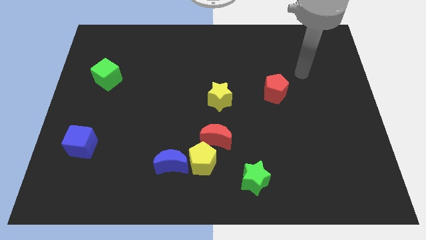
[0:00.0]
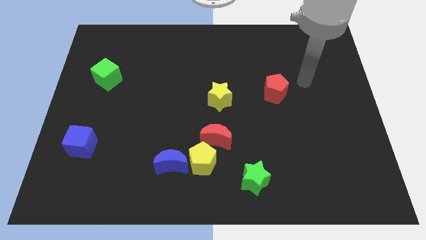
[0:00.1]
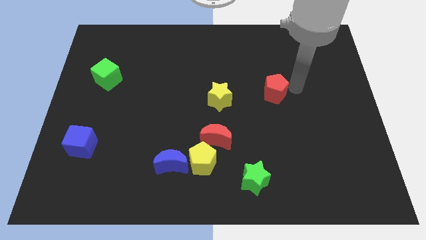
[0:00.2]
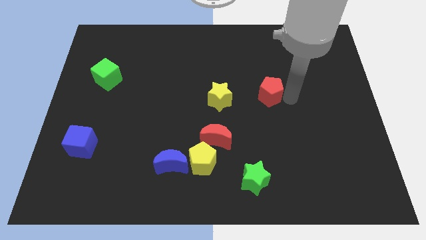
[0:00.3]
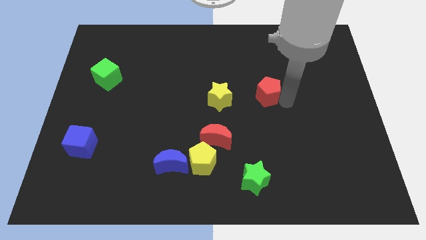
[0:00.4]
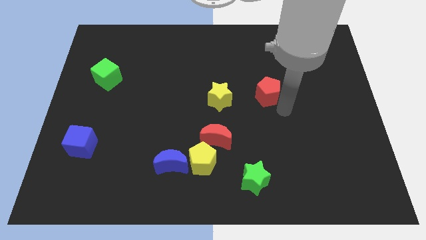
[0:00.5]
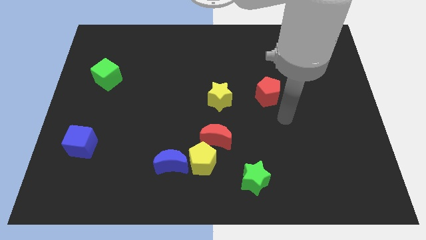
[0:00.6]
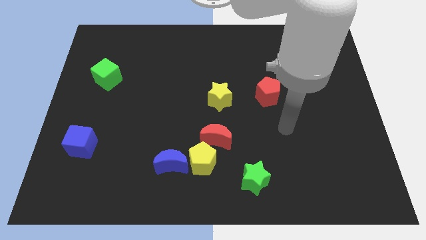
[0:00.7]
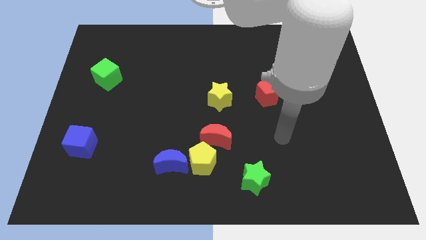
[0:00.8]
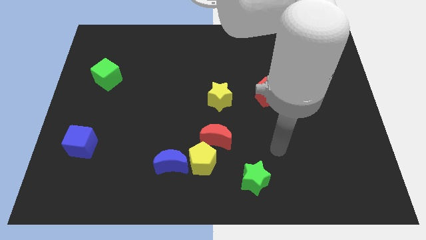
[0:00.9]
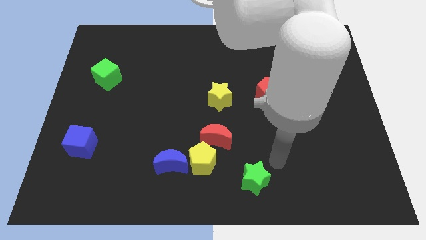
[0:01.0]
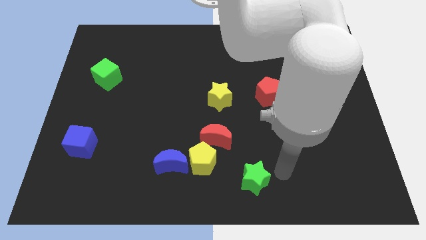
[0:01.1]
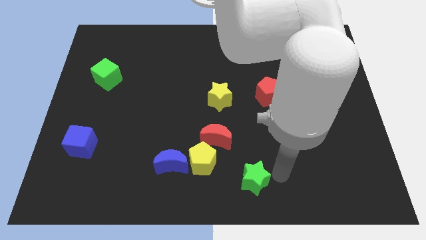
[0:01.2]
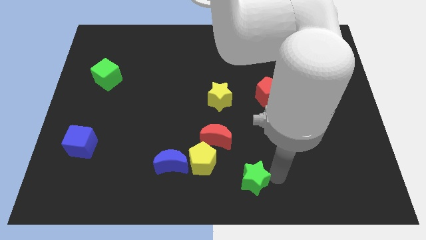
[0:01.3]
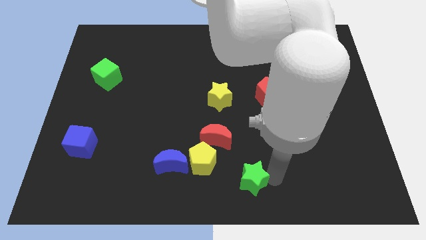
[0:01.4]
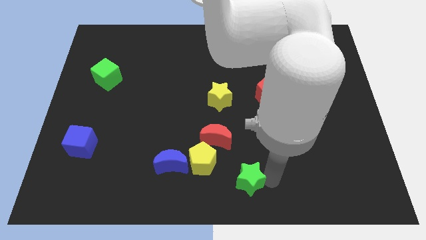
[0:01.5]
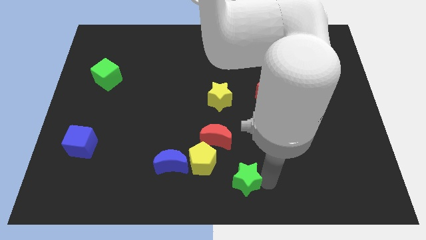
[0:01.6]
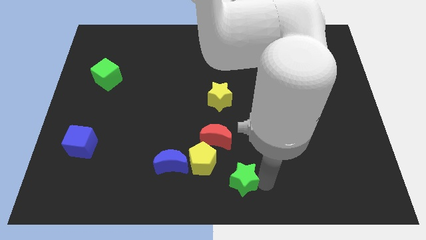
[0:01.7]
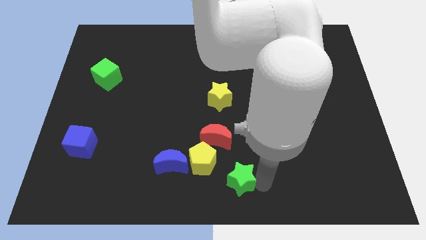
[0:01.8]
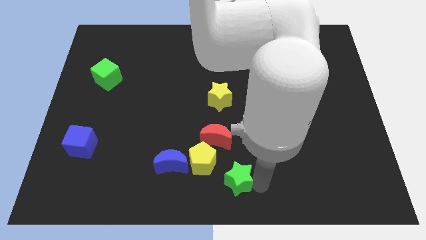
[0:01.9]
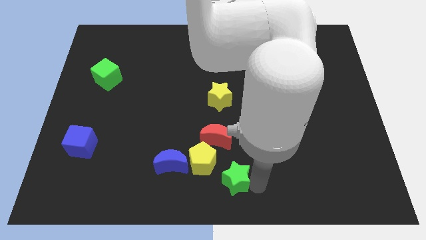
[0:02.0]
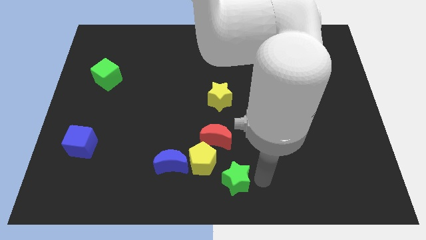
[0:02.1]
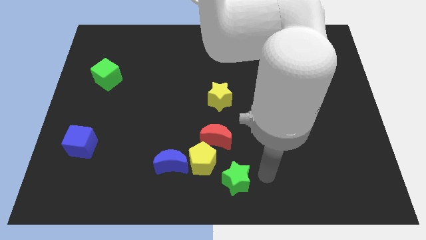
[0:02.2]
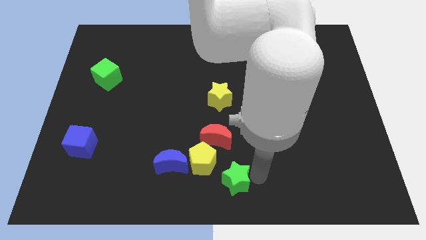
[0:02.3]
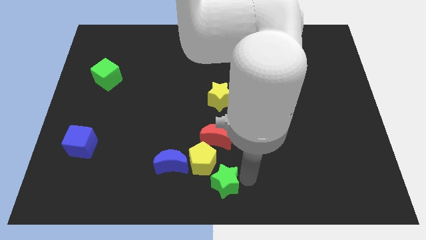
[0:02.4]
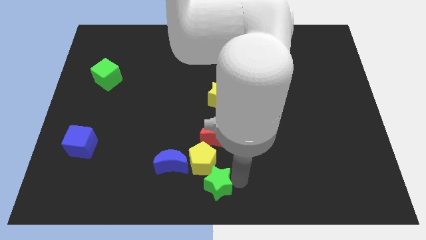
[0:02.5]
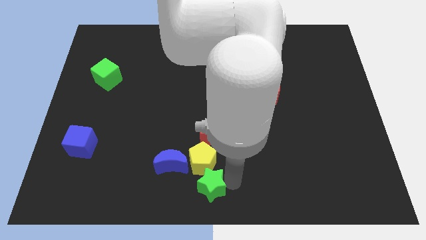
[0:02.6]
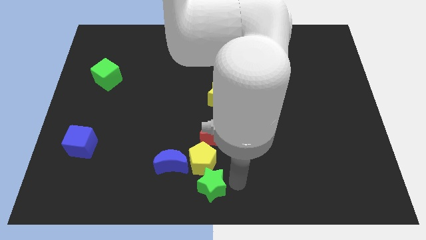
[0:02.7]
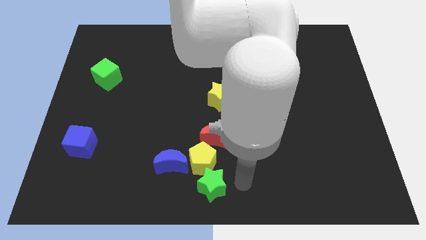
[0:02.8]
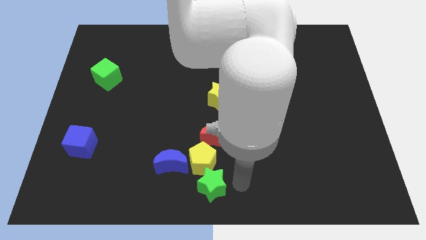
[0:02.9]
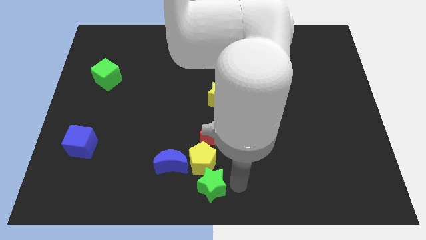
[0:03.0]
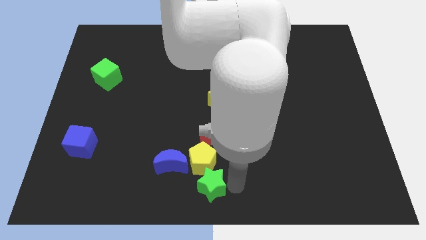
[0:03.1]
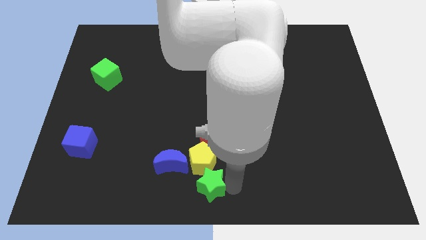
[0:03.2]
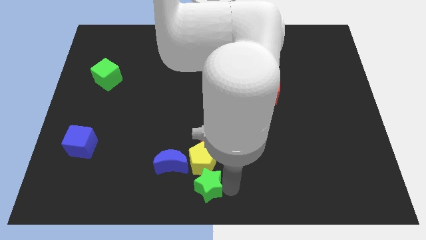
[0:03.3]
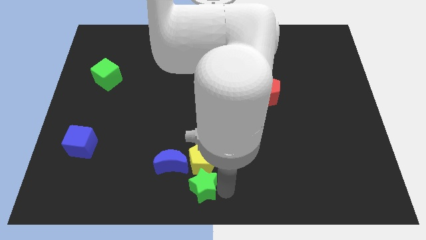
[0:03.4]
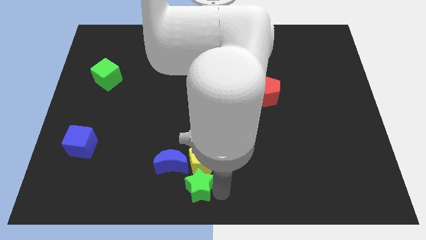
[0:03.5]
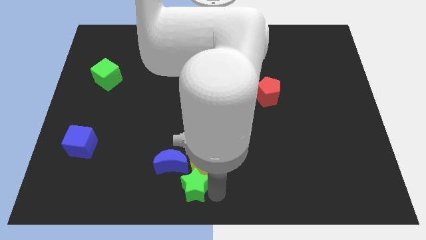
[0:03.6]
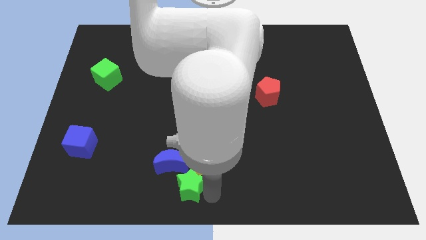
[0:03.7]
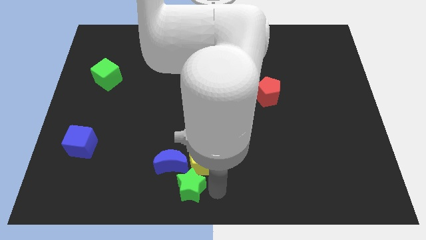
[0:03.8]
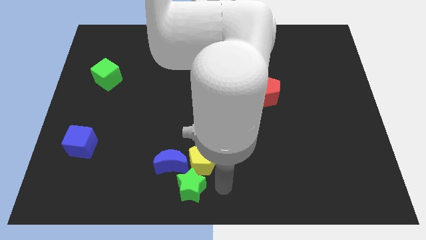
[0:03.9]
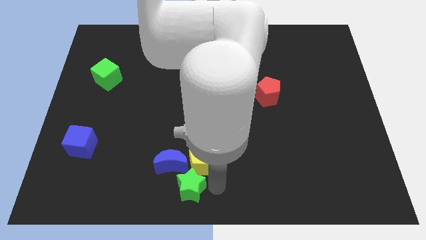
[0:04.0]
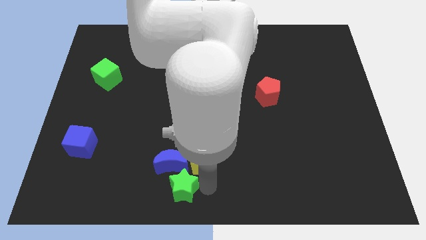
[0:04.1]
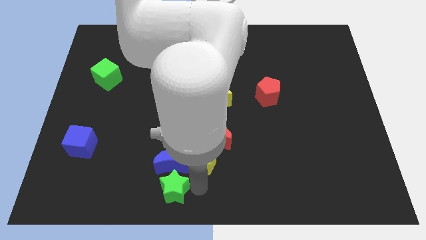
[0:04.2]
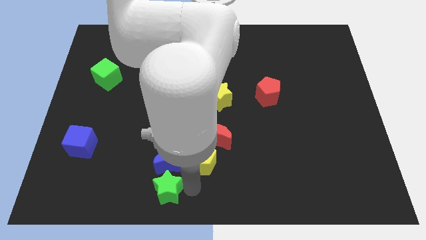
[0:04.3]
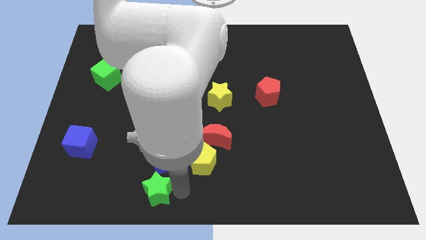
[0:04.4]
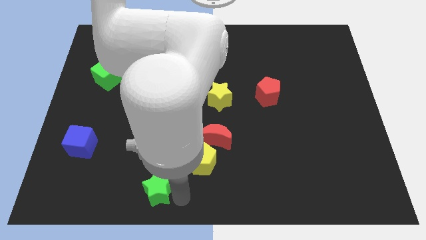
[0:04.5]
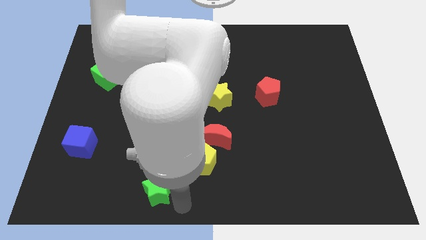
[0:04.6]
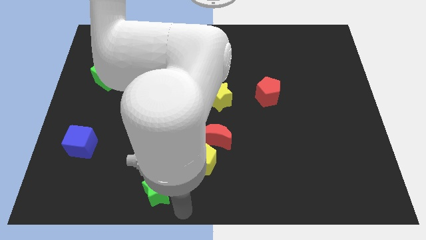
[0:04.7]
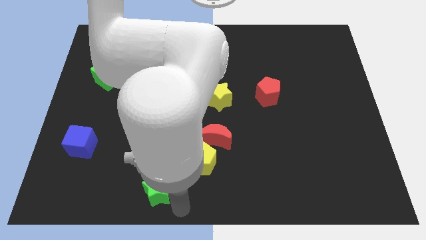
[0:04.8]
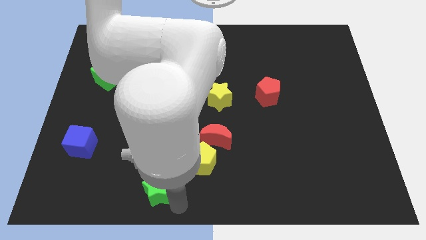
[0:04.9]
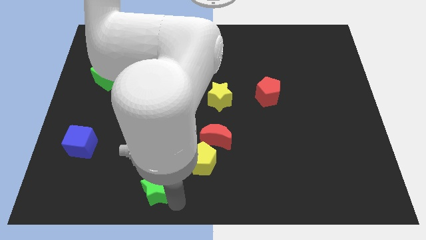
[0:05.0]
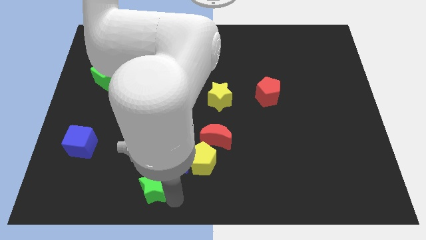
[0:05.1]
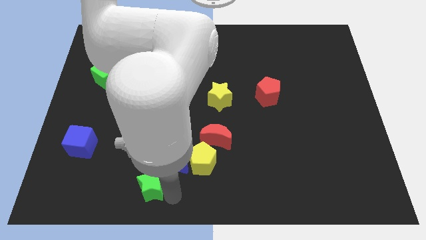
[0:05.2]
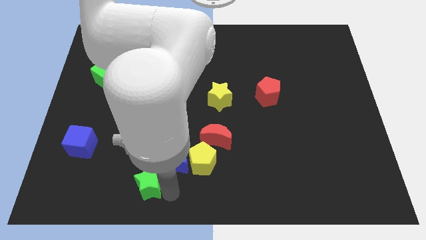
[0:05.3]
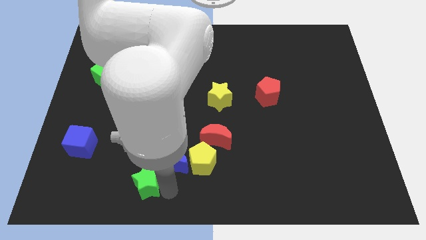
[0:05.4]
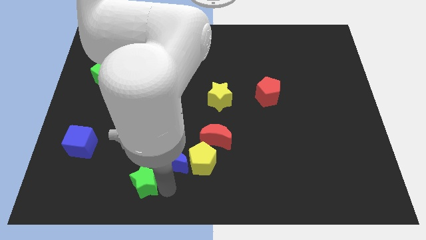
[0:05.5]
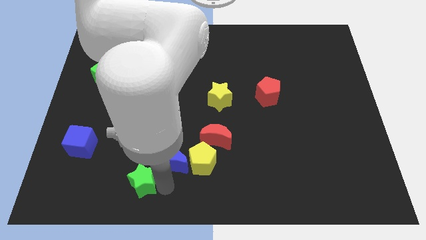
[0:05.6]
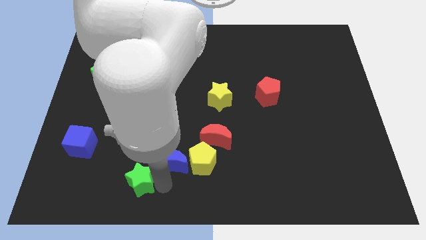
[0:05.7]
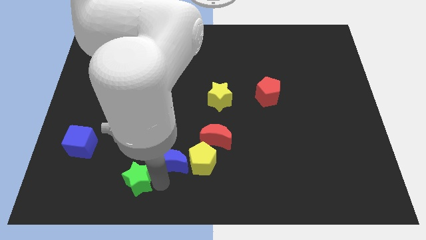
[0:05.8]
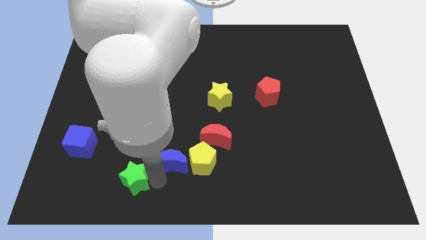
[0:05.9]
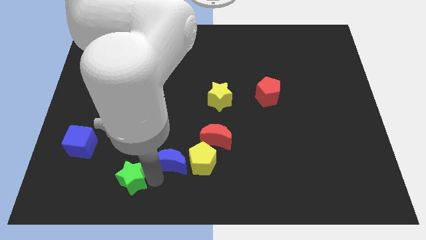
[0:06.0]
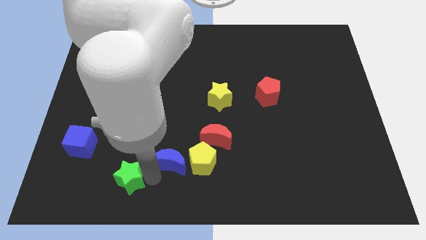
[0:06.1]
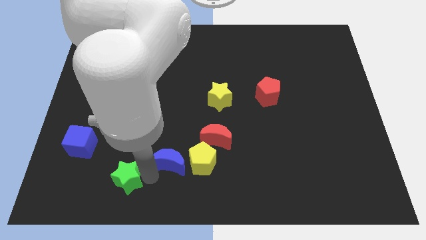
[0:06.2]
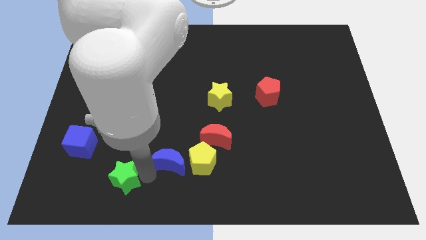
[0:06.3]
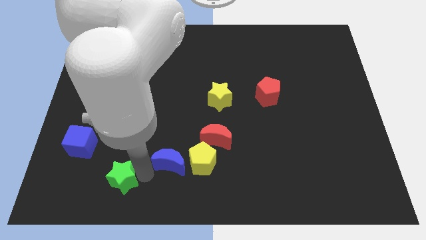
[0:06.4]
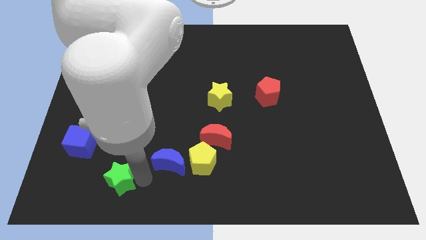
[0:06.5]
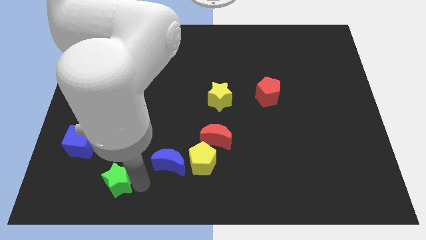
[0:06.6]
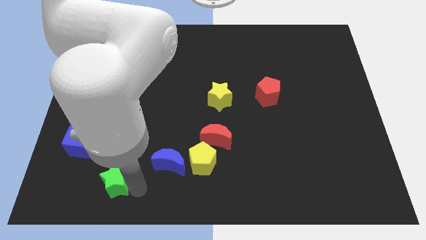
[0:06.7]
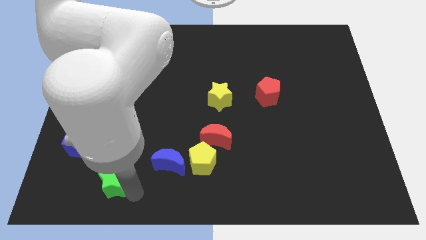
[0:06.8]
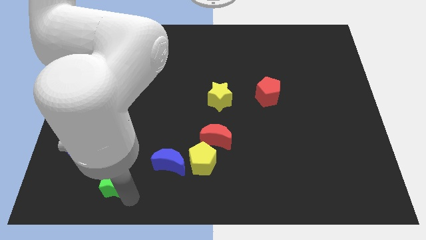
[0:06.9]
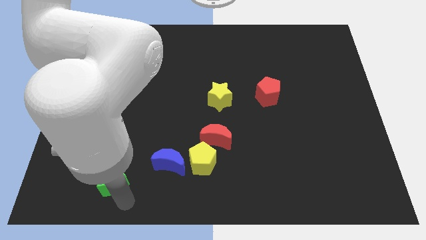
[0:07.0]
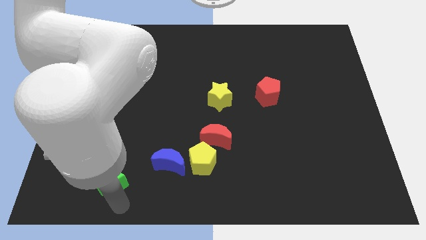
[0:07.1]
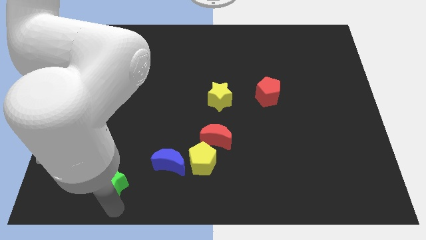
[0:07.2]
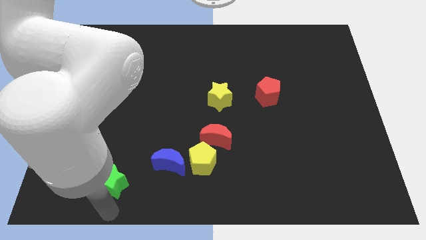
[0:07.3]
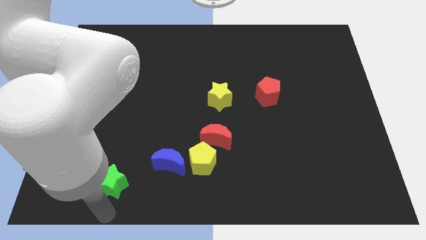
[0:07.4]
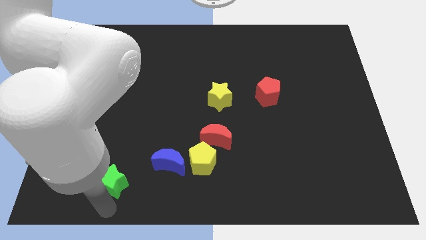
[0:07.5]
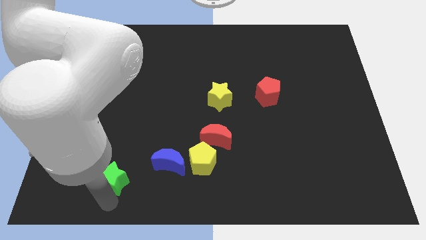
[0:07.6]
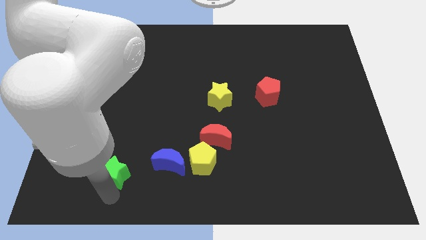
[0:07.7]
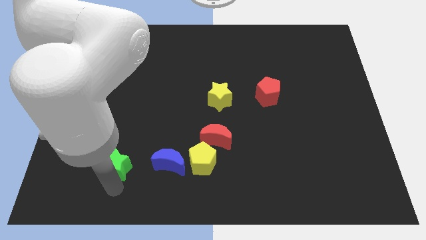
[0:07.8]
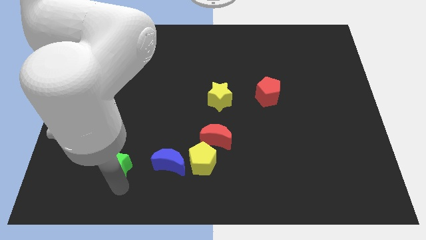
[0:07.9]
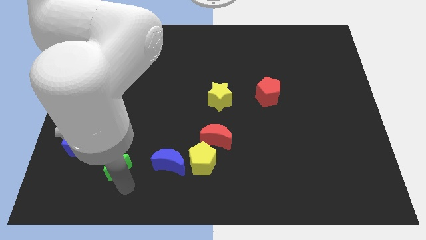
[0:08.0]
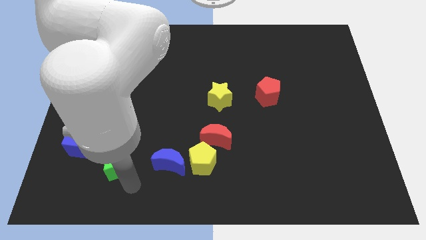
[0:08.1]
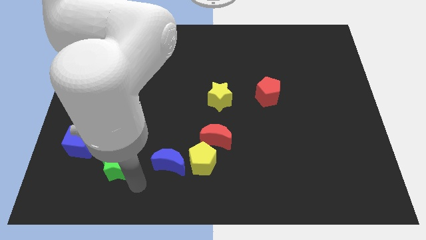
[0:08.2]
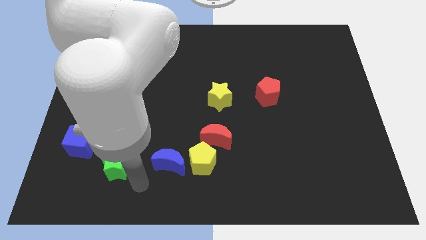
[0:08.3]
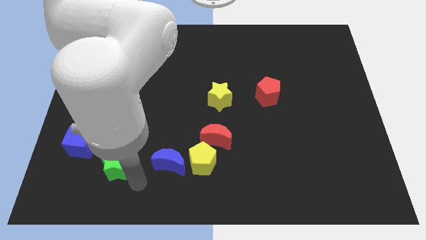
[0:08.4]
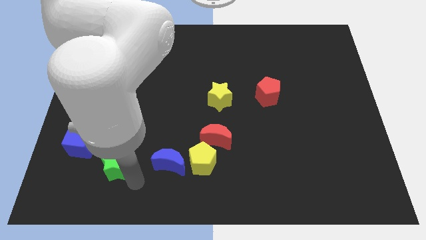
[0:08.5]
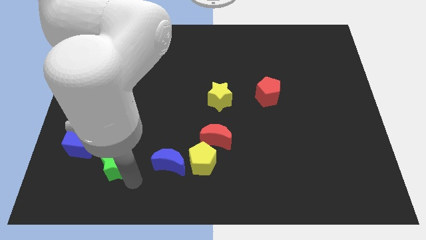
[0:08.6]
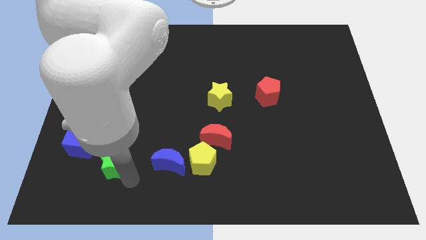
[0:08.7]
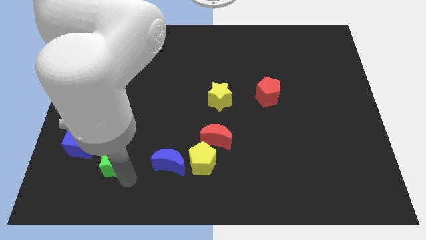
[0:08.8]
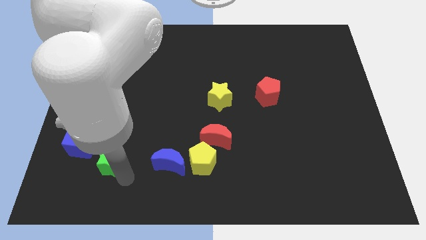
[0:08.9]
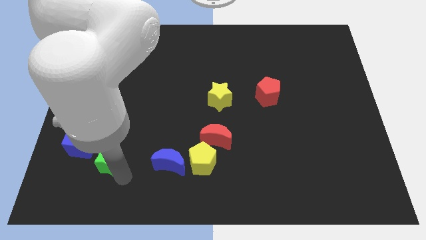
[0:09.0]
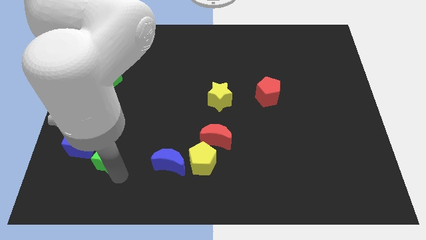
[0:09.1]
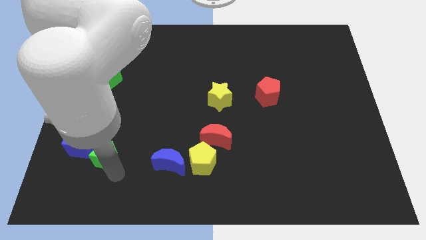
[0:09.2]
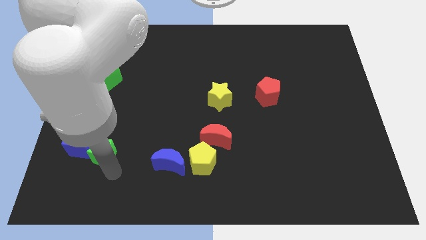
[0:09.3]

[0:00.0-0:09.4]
push the green star next to the blue cube
